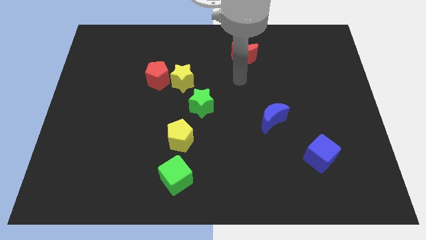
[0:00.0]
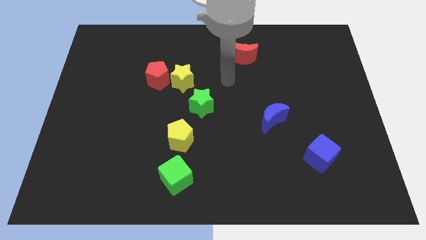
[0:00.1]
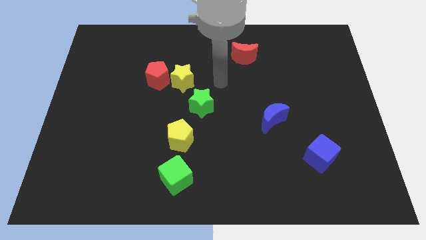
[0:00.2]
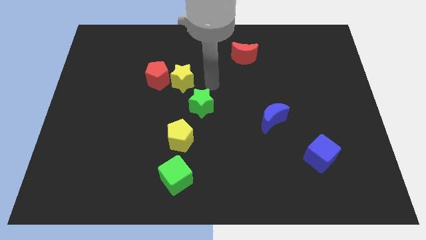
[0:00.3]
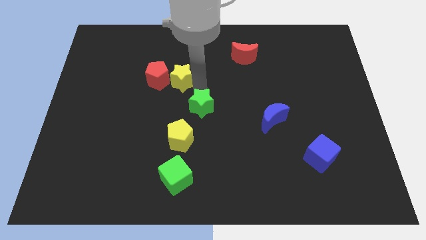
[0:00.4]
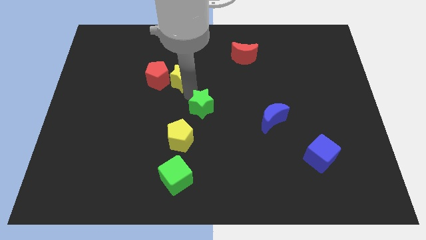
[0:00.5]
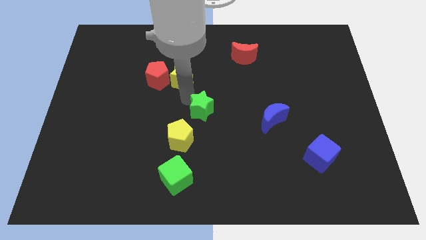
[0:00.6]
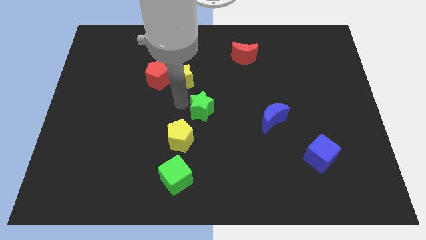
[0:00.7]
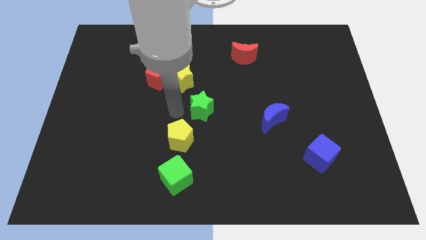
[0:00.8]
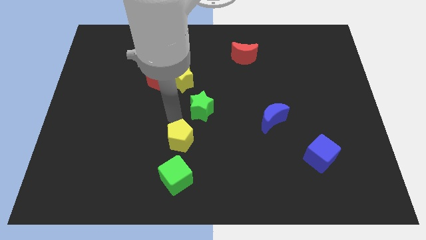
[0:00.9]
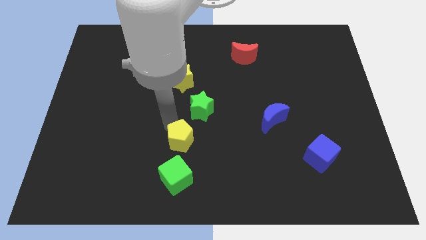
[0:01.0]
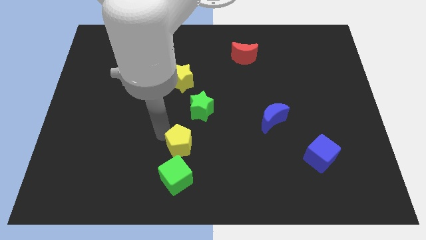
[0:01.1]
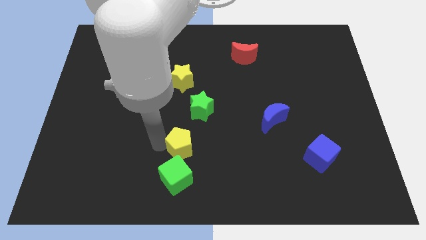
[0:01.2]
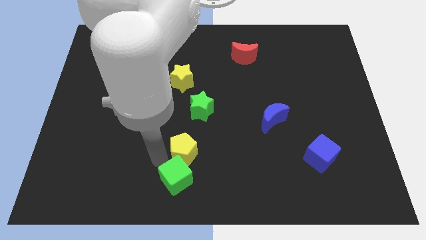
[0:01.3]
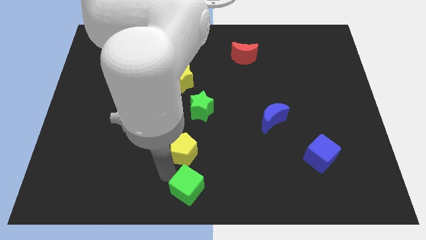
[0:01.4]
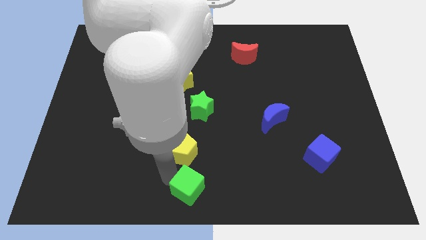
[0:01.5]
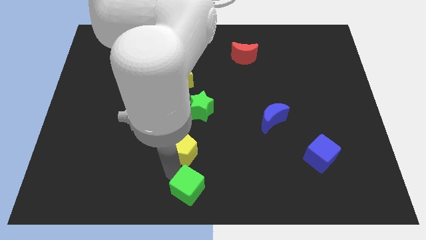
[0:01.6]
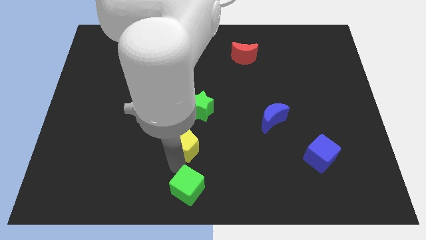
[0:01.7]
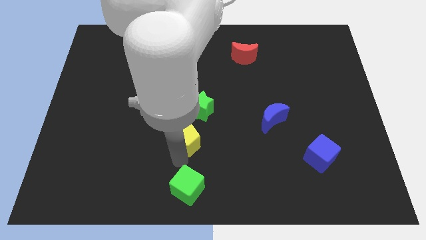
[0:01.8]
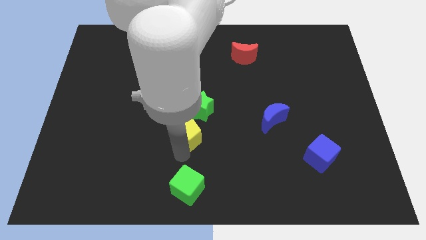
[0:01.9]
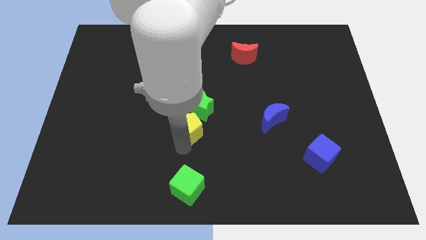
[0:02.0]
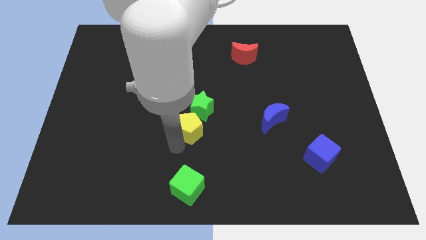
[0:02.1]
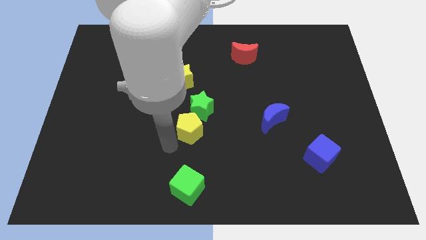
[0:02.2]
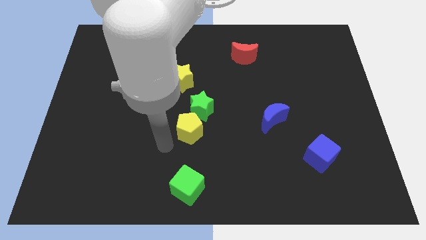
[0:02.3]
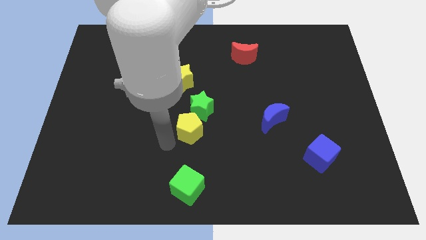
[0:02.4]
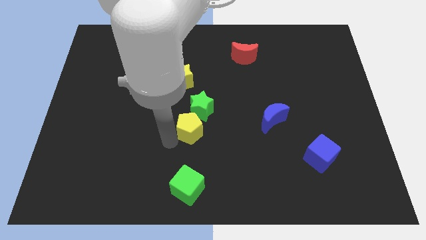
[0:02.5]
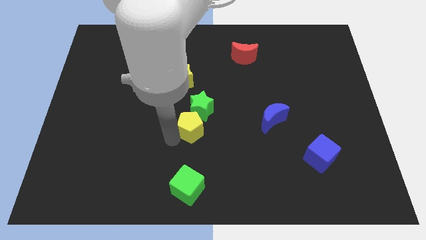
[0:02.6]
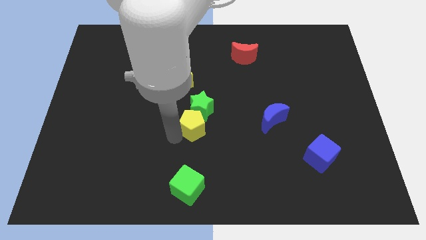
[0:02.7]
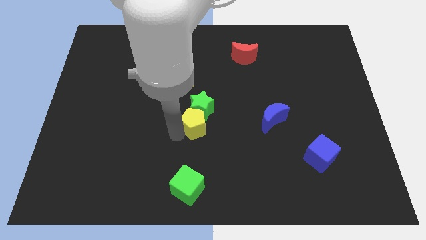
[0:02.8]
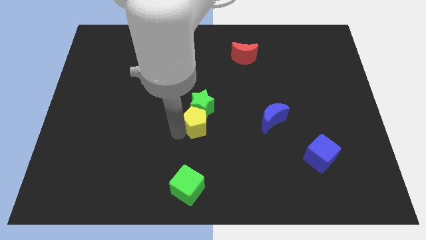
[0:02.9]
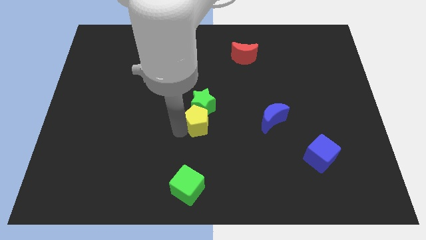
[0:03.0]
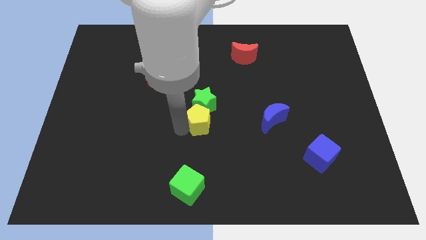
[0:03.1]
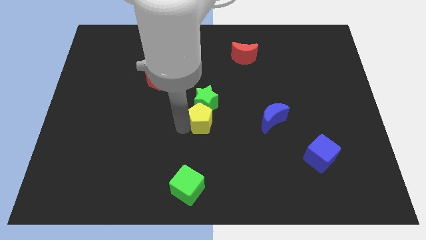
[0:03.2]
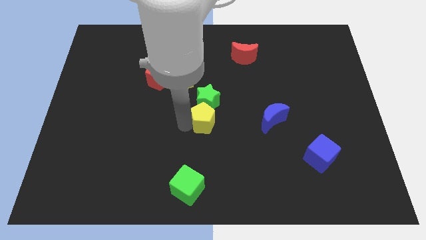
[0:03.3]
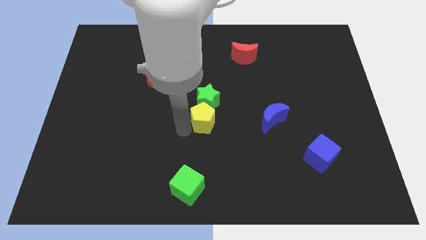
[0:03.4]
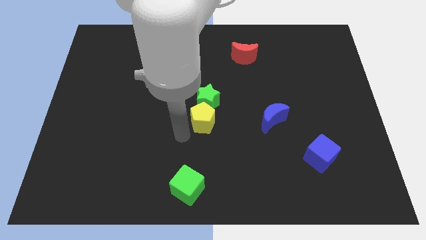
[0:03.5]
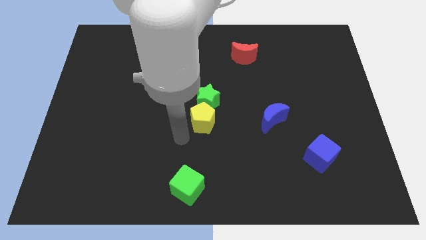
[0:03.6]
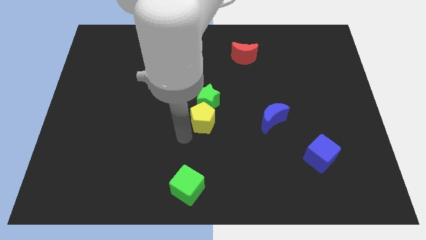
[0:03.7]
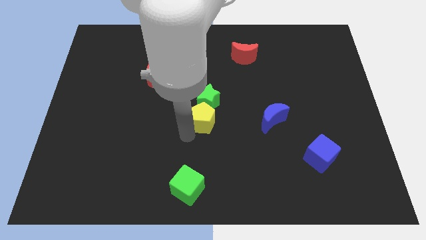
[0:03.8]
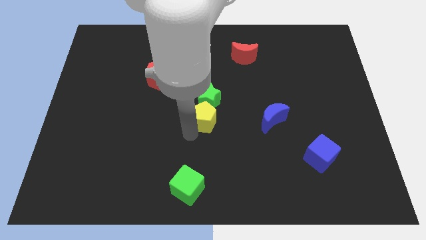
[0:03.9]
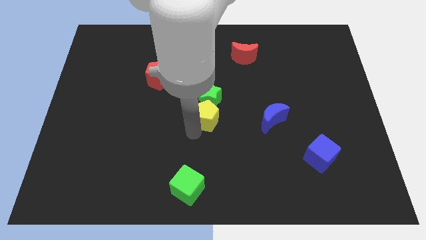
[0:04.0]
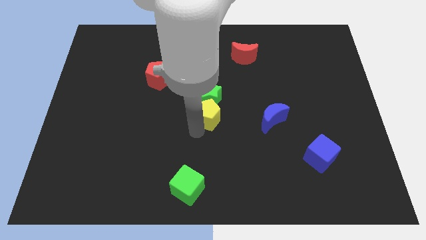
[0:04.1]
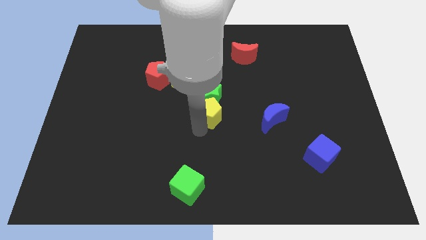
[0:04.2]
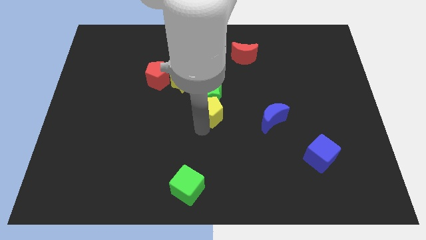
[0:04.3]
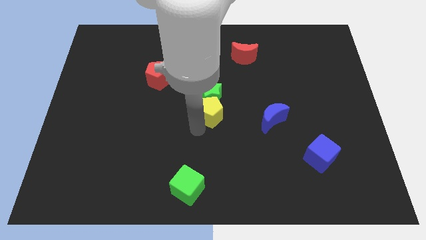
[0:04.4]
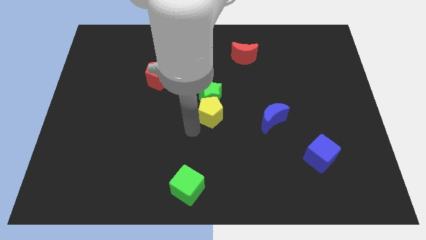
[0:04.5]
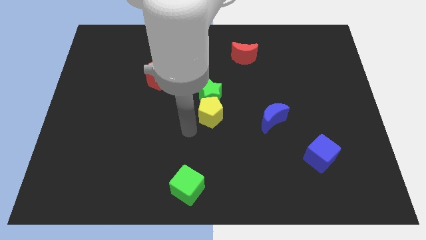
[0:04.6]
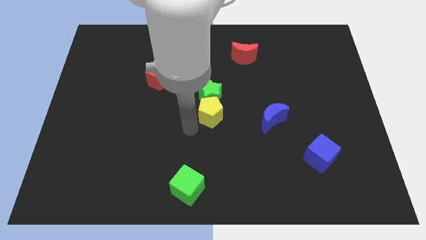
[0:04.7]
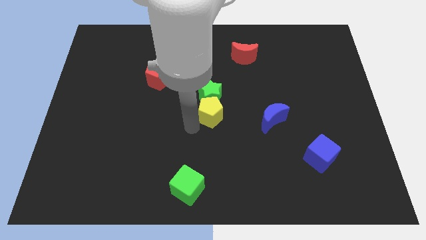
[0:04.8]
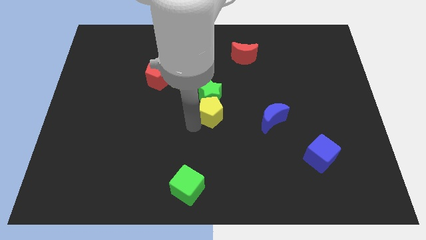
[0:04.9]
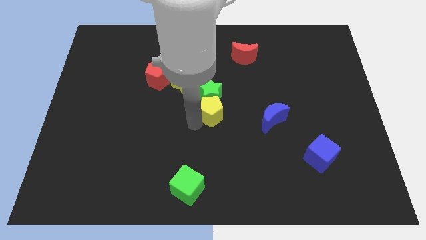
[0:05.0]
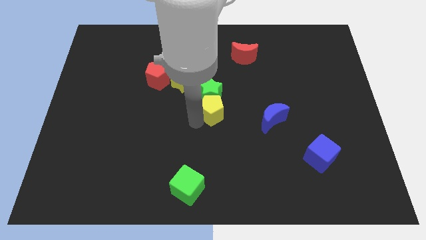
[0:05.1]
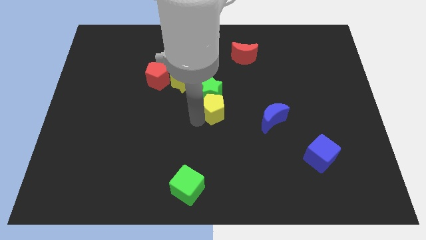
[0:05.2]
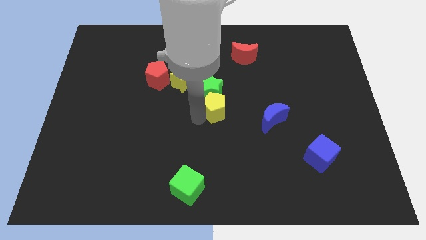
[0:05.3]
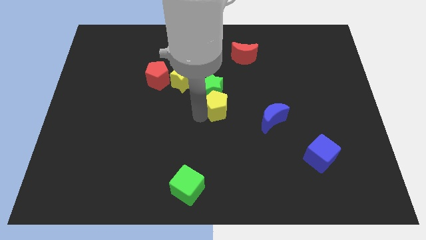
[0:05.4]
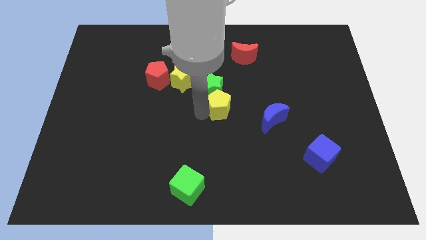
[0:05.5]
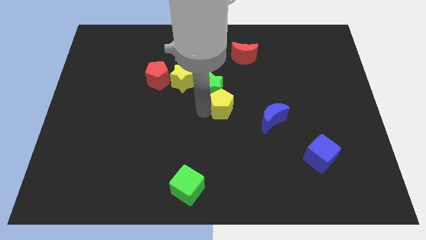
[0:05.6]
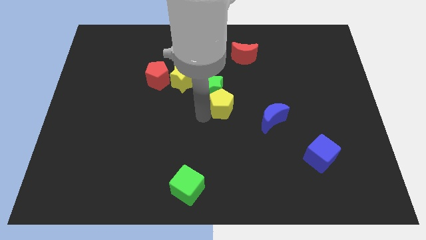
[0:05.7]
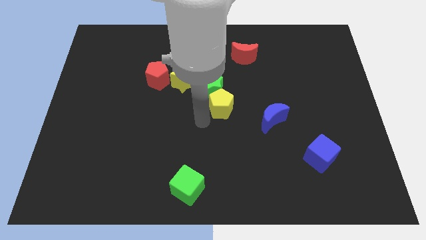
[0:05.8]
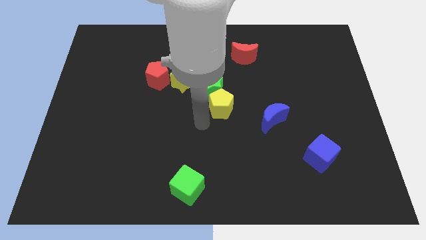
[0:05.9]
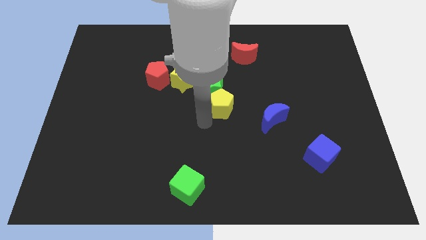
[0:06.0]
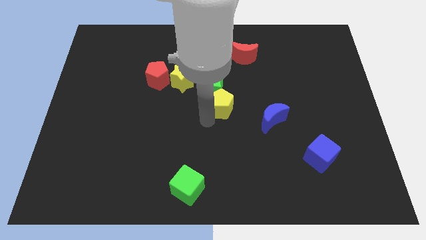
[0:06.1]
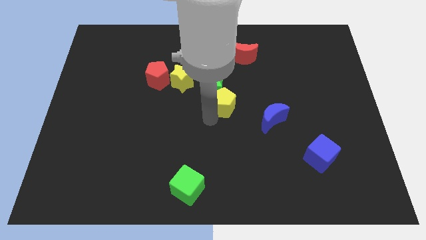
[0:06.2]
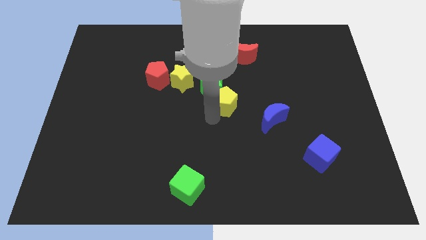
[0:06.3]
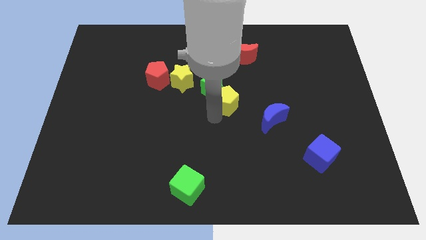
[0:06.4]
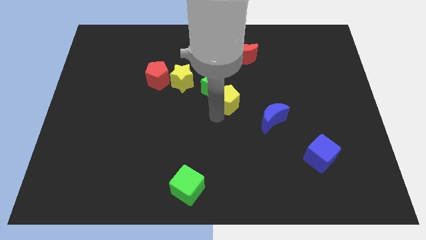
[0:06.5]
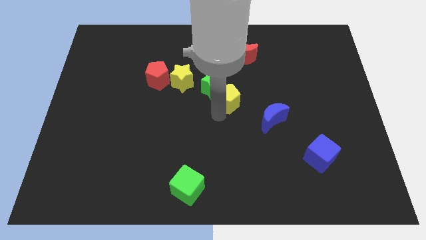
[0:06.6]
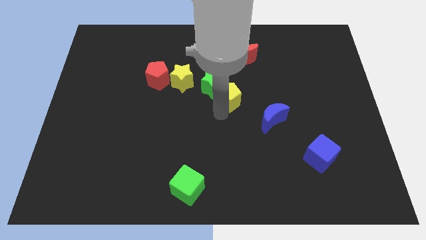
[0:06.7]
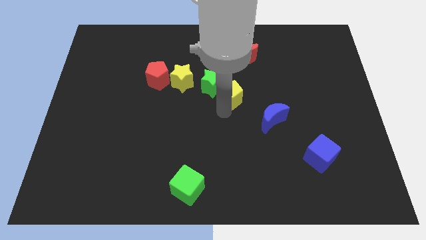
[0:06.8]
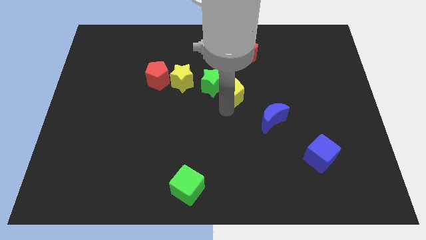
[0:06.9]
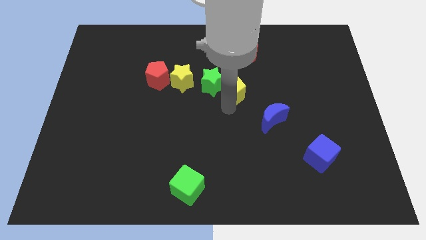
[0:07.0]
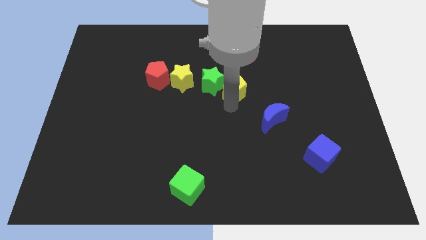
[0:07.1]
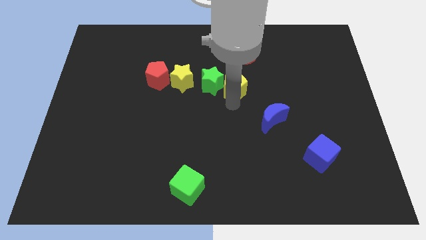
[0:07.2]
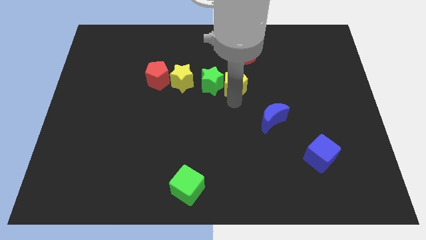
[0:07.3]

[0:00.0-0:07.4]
move the yellow pentagon up and right diagonally

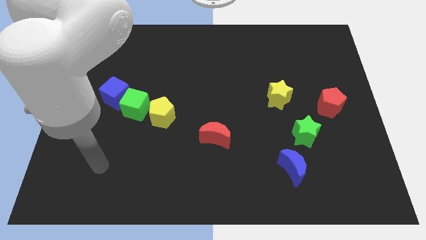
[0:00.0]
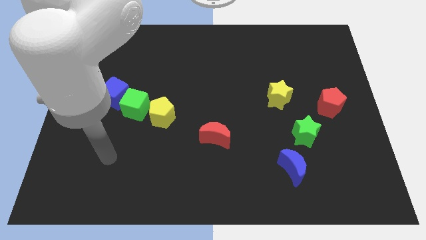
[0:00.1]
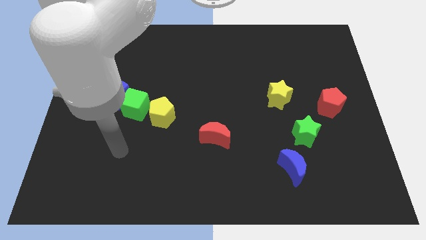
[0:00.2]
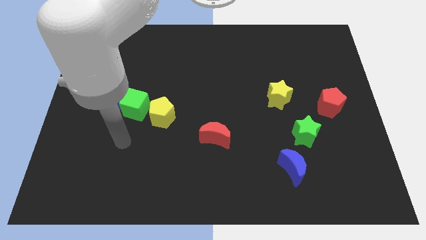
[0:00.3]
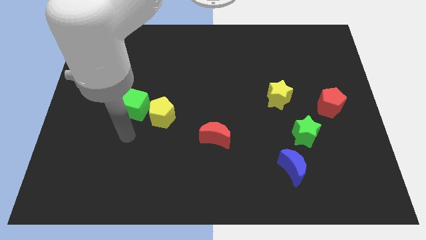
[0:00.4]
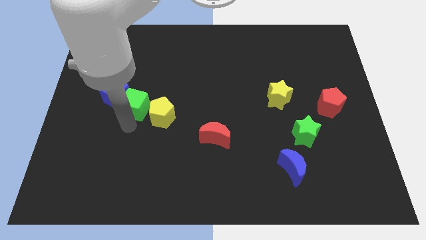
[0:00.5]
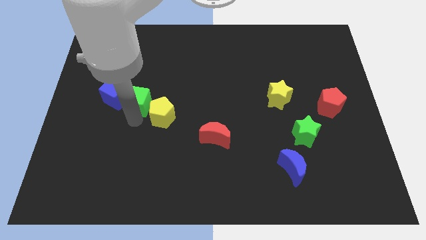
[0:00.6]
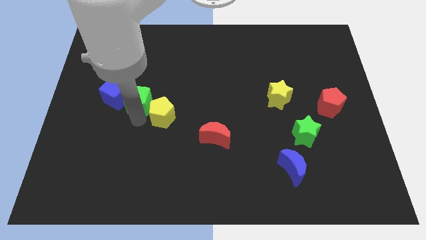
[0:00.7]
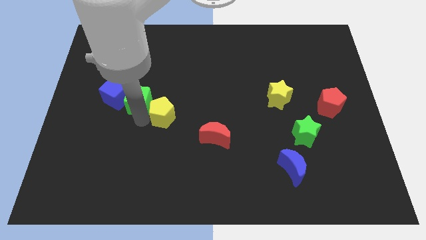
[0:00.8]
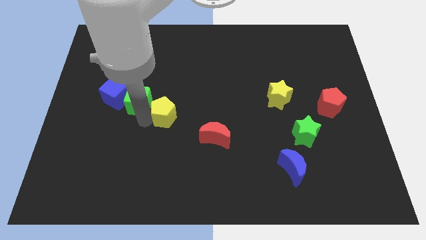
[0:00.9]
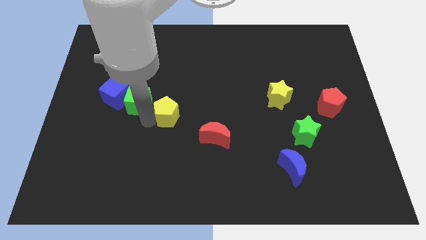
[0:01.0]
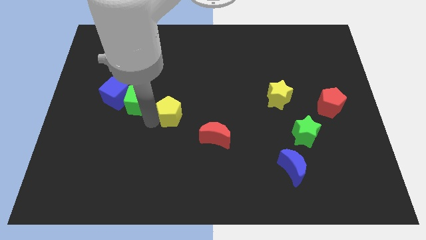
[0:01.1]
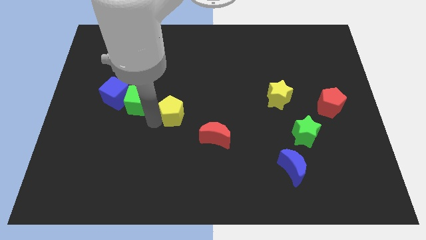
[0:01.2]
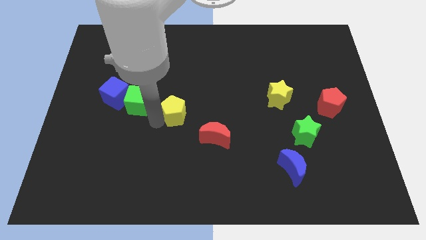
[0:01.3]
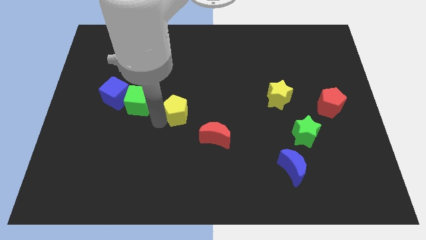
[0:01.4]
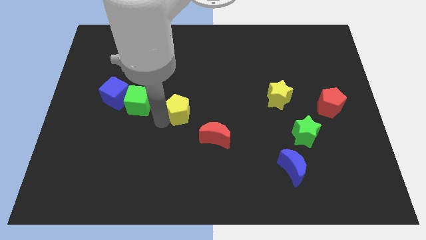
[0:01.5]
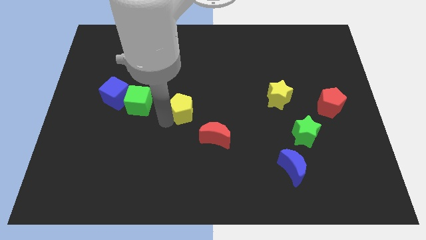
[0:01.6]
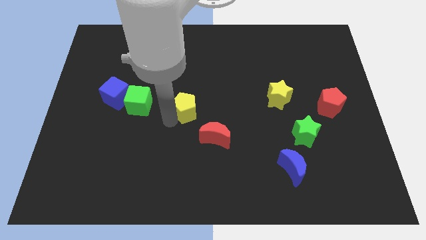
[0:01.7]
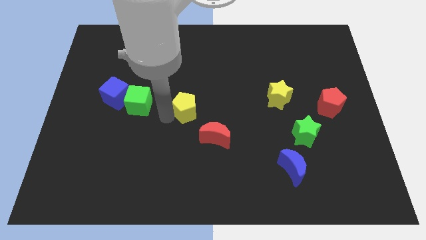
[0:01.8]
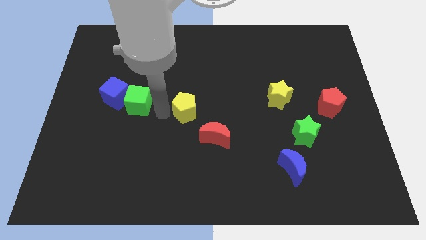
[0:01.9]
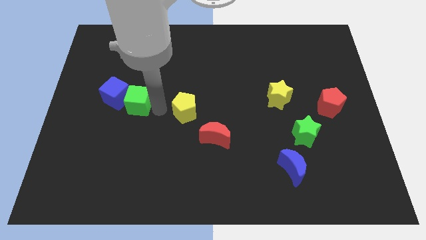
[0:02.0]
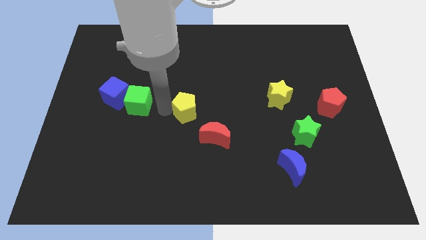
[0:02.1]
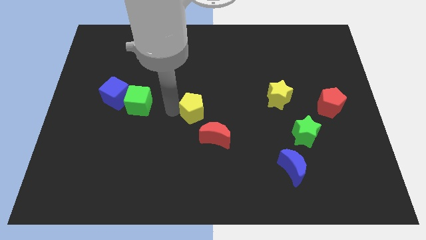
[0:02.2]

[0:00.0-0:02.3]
slightly move the yellow pentagon right
